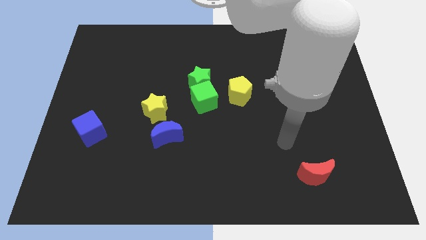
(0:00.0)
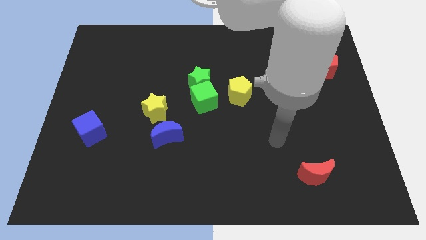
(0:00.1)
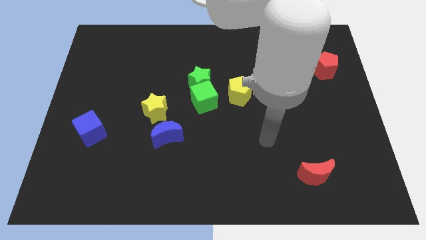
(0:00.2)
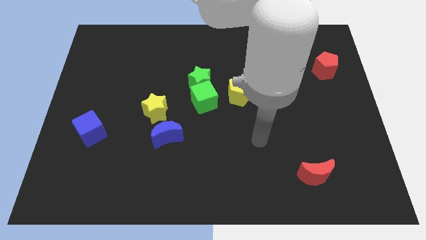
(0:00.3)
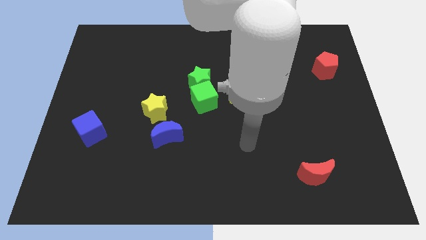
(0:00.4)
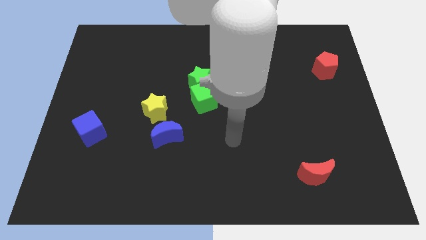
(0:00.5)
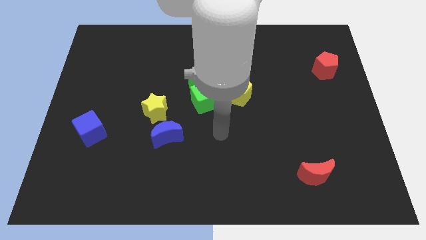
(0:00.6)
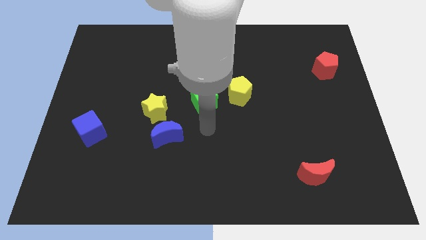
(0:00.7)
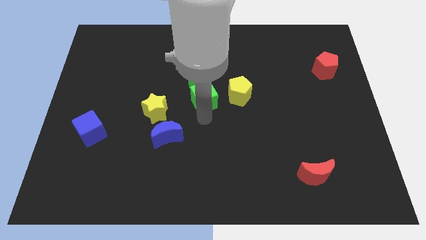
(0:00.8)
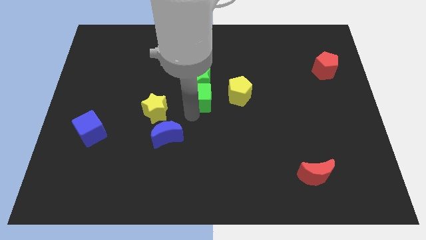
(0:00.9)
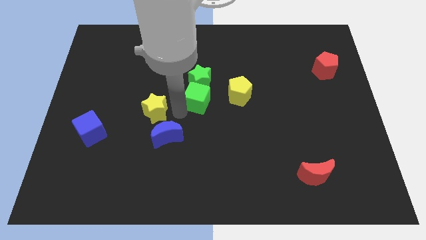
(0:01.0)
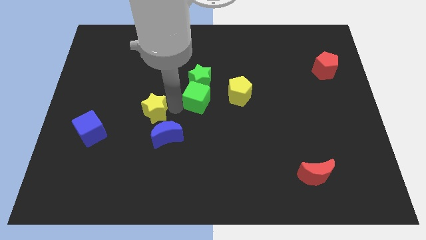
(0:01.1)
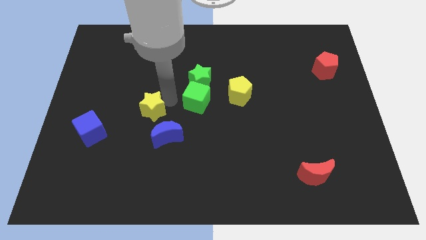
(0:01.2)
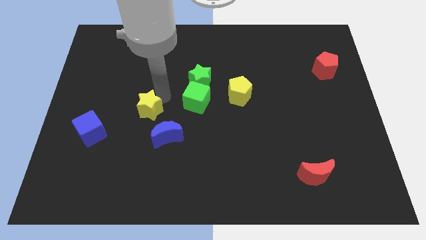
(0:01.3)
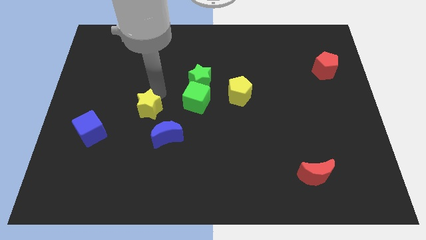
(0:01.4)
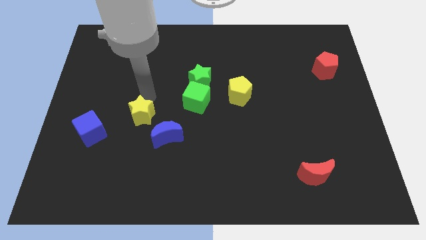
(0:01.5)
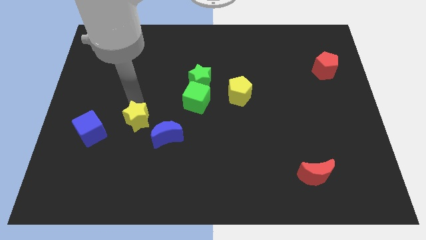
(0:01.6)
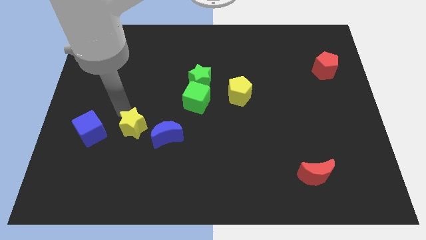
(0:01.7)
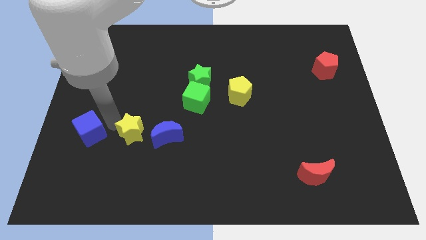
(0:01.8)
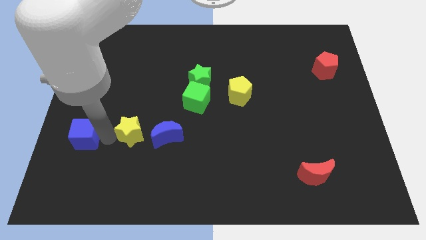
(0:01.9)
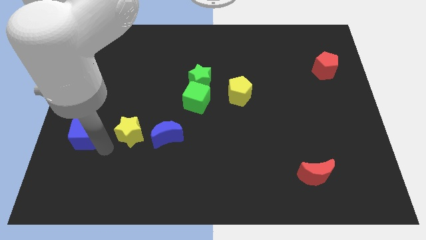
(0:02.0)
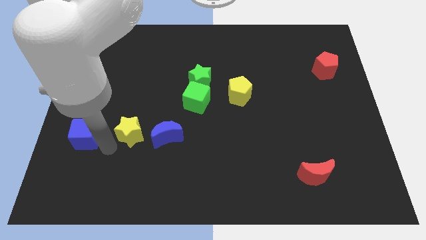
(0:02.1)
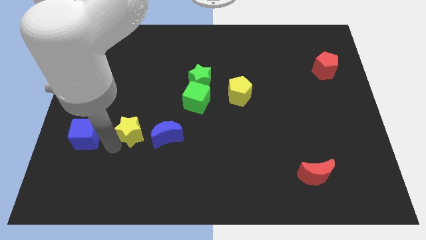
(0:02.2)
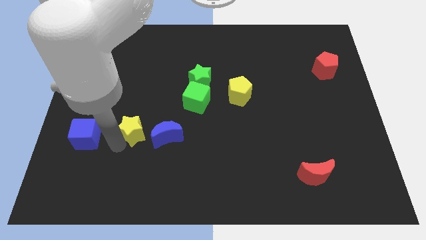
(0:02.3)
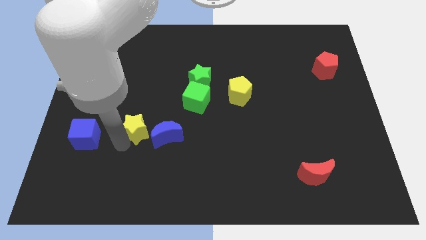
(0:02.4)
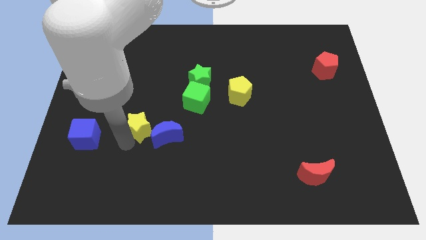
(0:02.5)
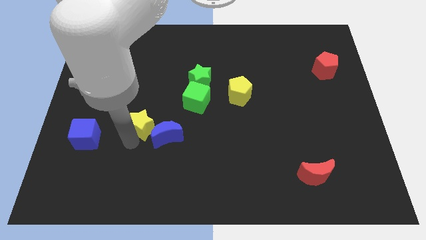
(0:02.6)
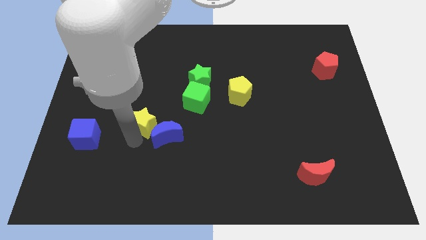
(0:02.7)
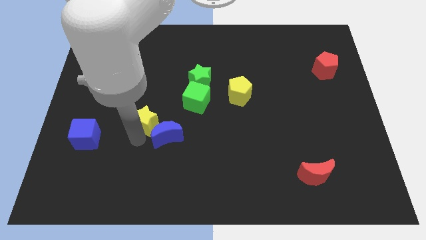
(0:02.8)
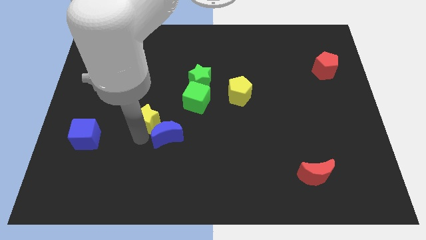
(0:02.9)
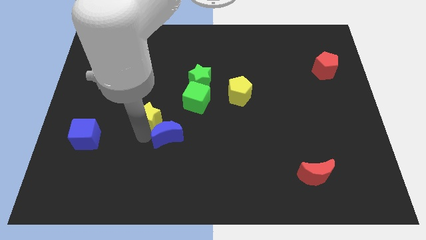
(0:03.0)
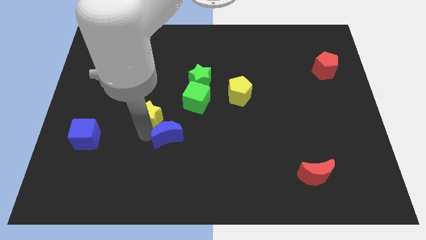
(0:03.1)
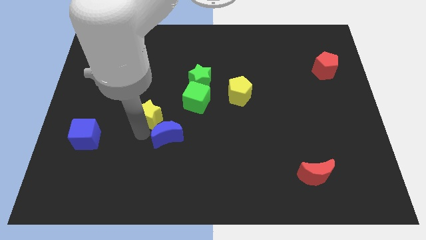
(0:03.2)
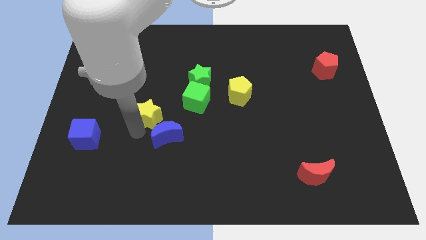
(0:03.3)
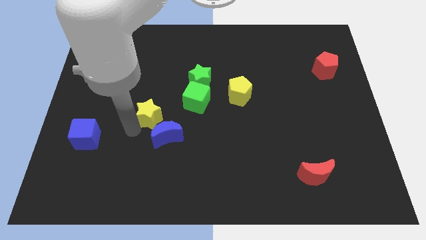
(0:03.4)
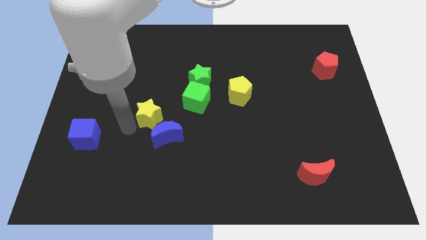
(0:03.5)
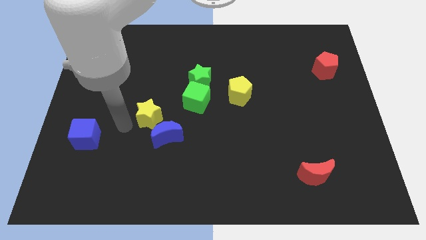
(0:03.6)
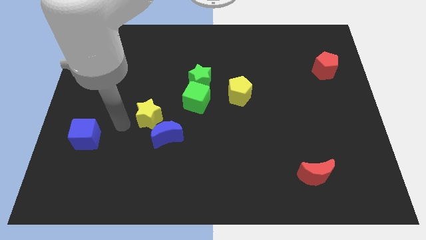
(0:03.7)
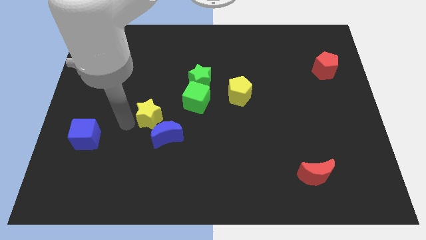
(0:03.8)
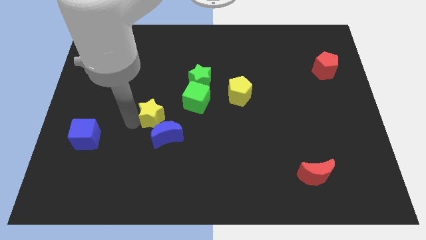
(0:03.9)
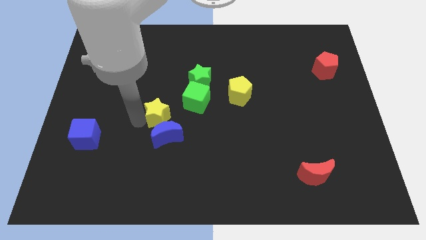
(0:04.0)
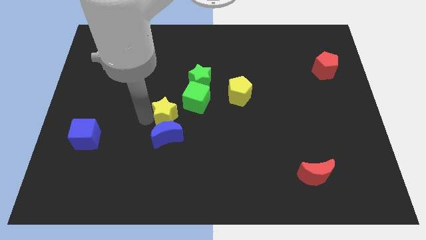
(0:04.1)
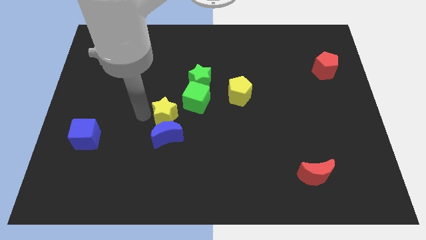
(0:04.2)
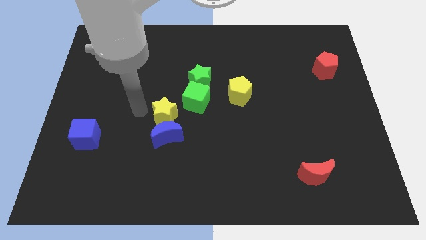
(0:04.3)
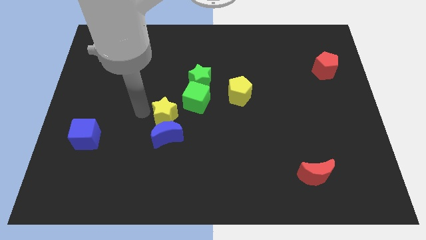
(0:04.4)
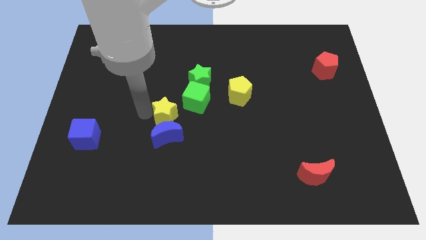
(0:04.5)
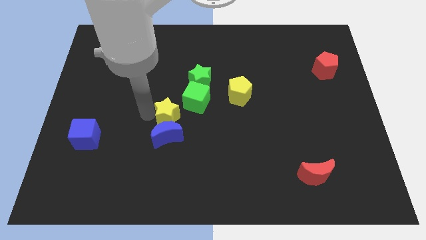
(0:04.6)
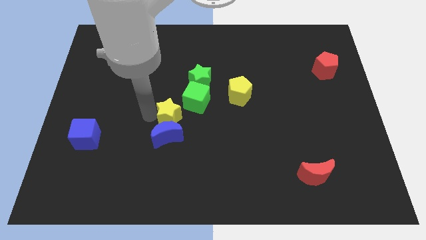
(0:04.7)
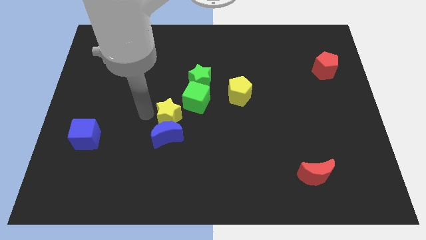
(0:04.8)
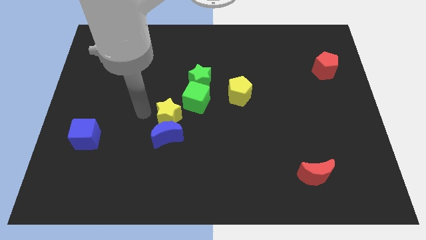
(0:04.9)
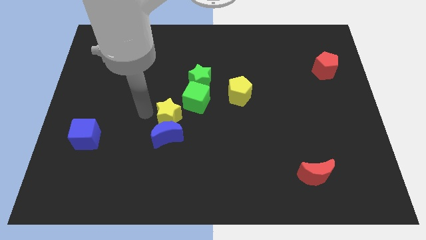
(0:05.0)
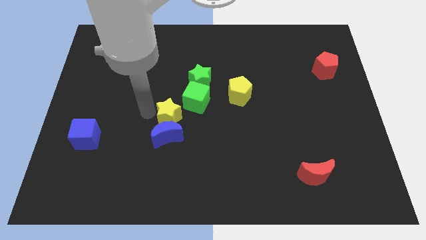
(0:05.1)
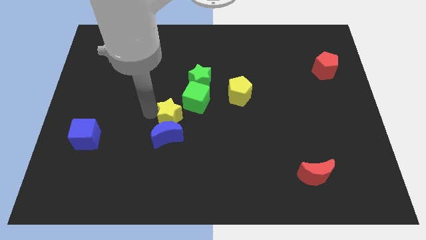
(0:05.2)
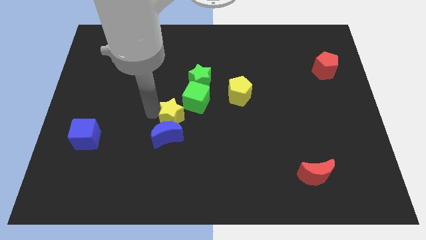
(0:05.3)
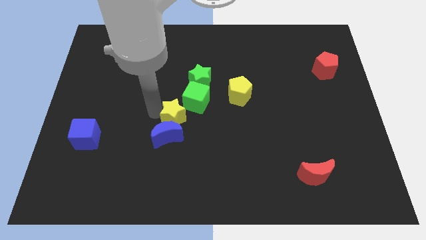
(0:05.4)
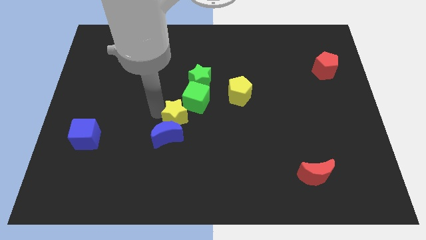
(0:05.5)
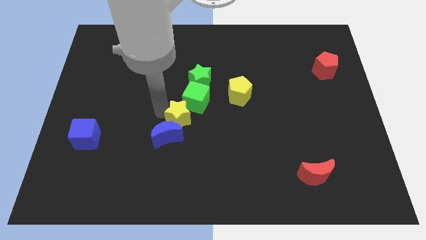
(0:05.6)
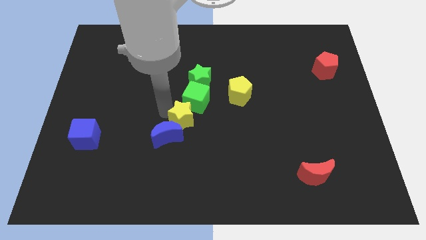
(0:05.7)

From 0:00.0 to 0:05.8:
slide the yellow star just right of the blue moon

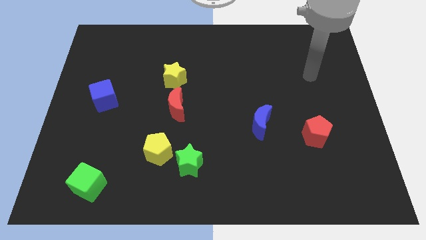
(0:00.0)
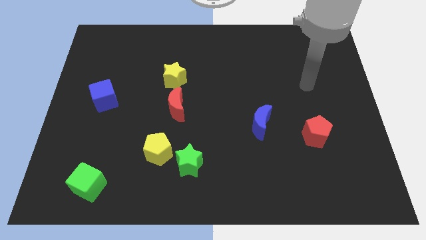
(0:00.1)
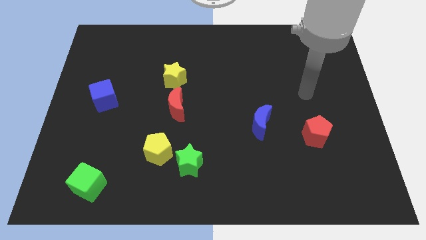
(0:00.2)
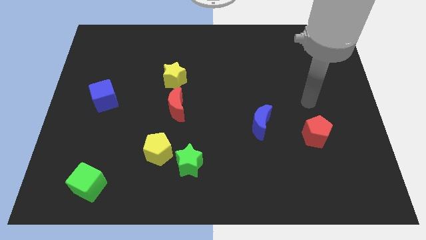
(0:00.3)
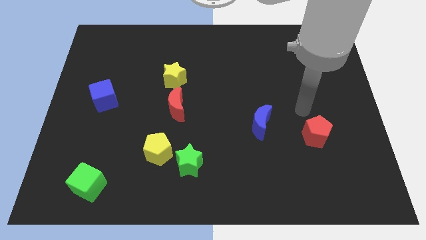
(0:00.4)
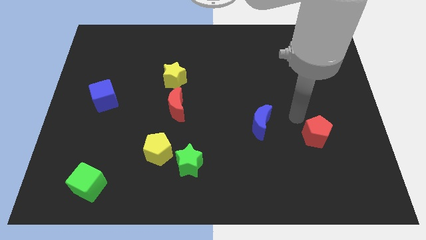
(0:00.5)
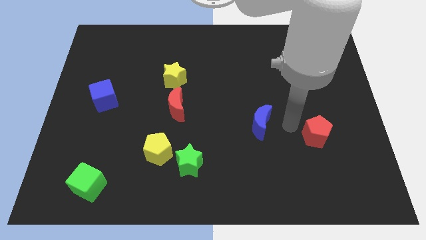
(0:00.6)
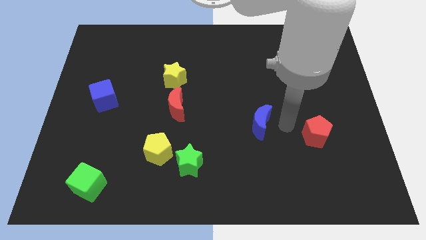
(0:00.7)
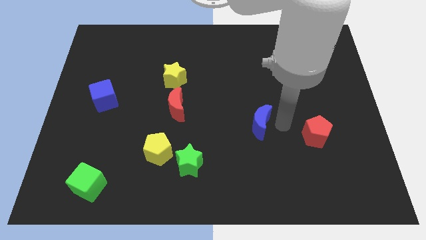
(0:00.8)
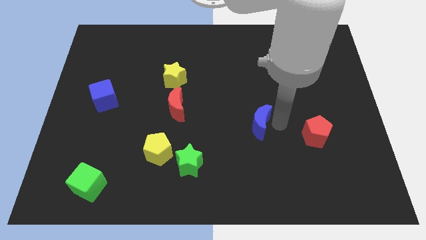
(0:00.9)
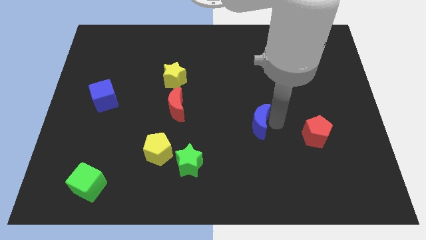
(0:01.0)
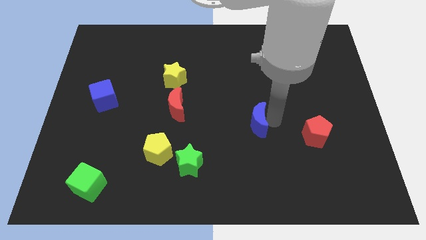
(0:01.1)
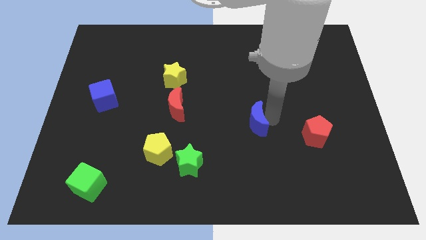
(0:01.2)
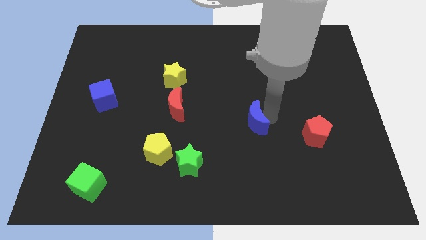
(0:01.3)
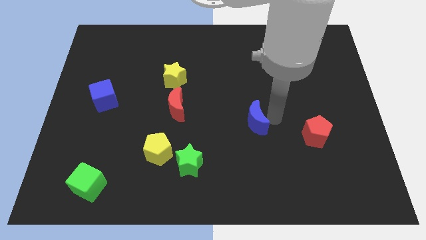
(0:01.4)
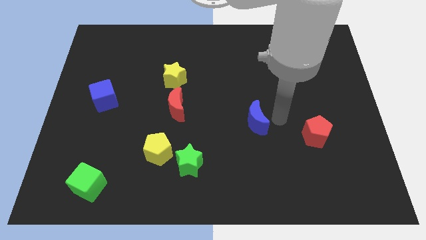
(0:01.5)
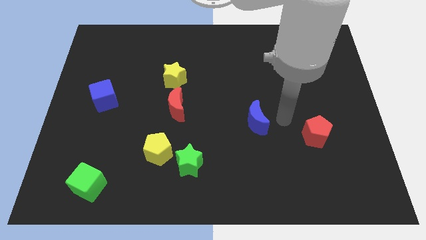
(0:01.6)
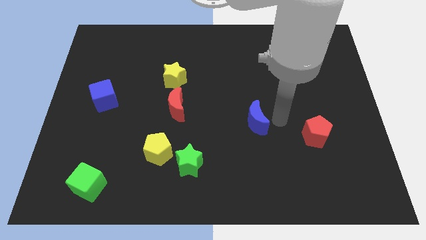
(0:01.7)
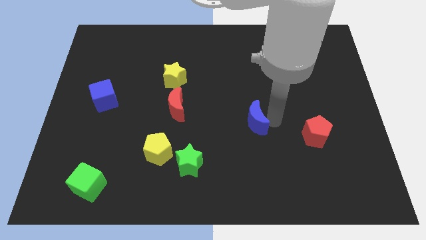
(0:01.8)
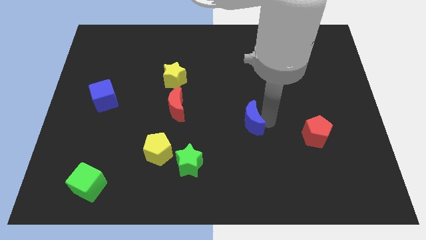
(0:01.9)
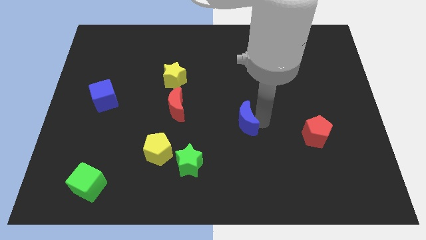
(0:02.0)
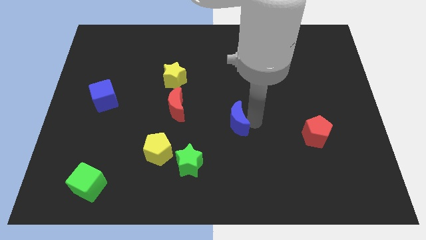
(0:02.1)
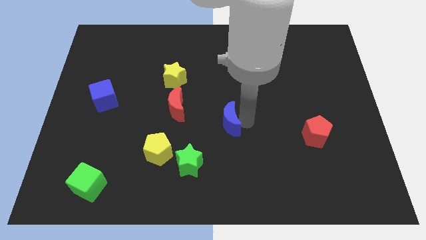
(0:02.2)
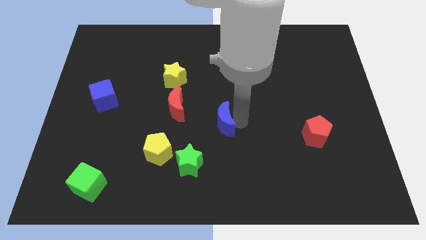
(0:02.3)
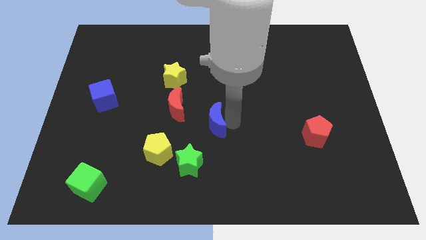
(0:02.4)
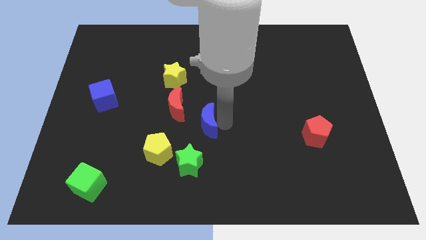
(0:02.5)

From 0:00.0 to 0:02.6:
slide the blue moon to the top of the green star
